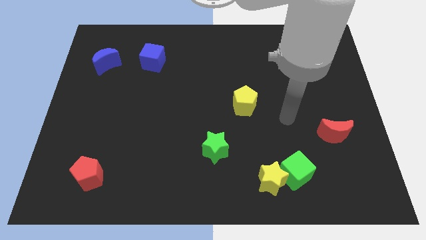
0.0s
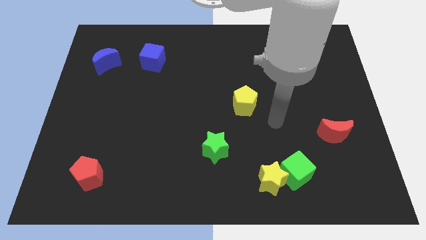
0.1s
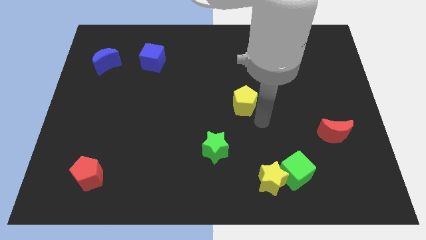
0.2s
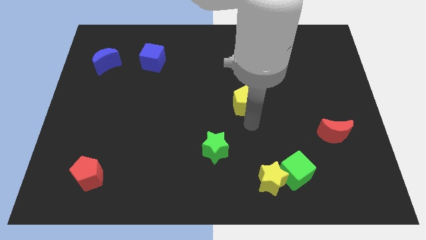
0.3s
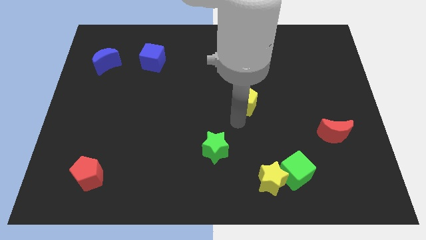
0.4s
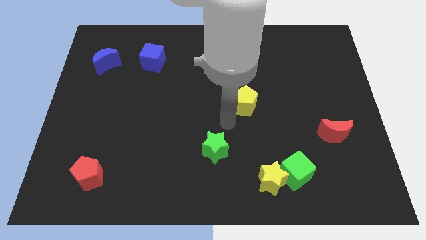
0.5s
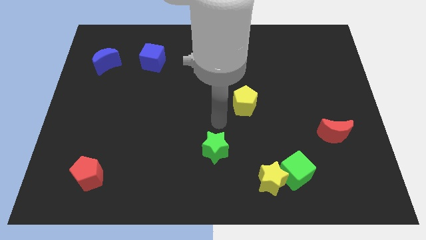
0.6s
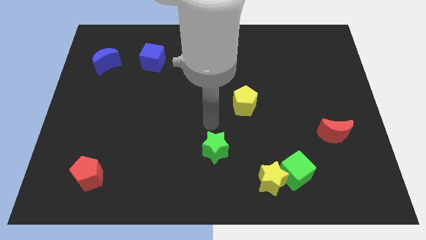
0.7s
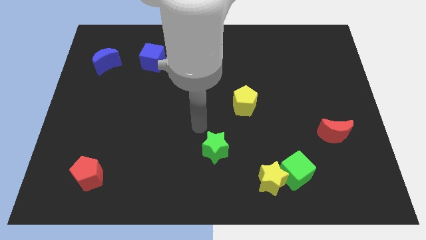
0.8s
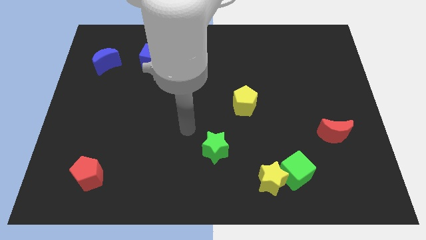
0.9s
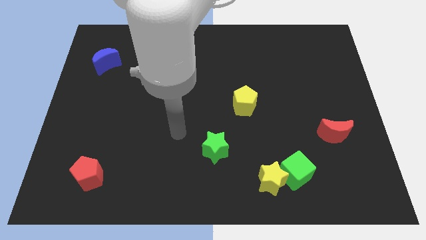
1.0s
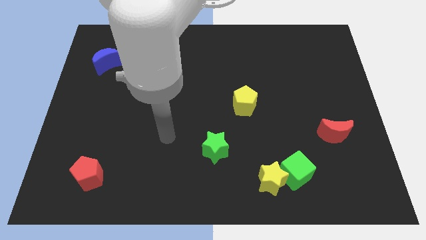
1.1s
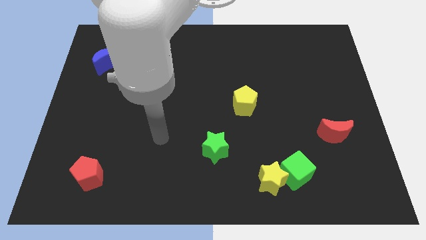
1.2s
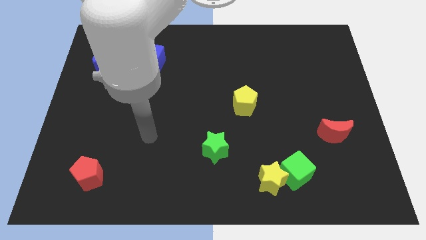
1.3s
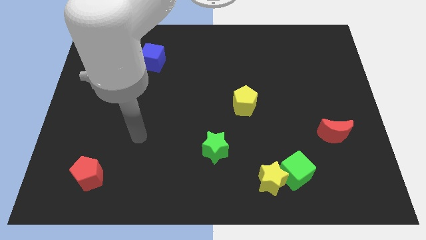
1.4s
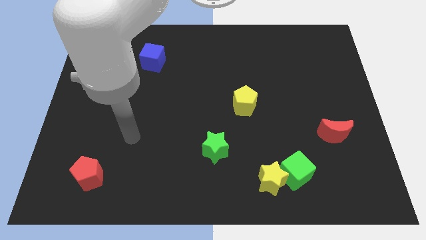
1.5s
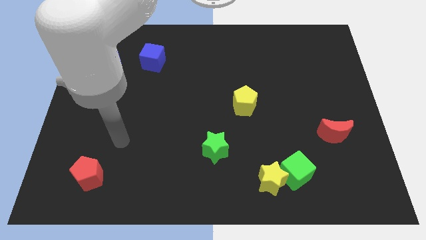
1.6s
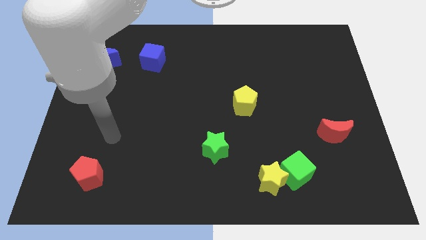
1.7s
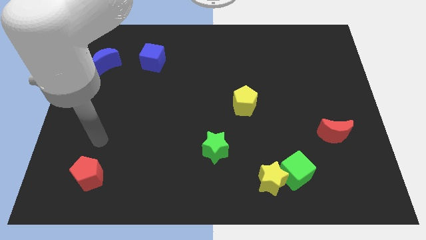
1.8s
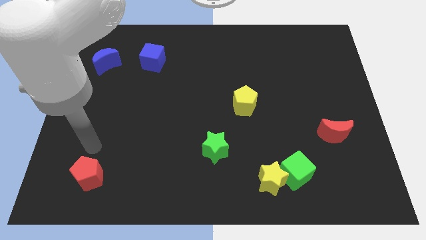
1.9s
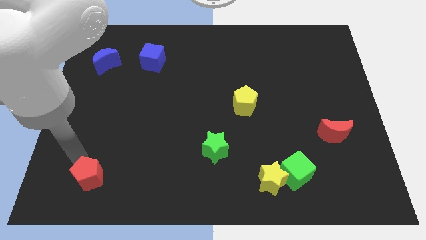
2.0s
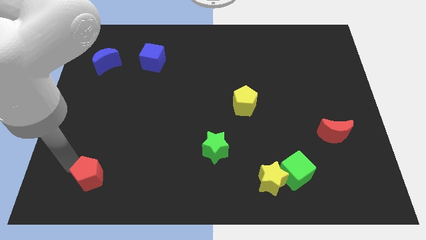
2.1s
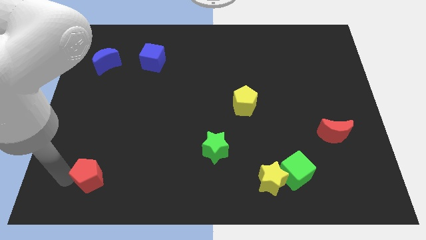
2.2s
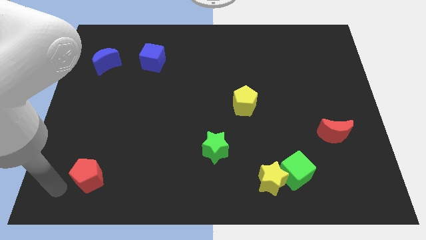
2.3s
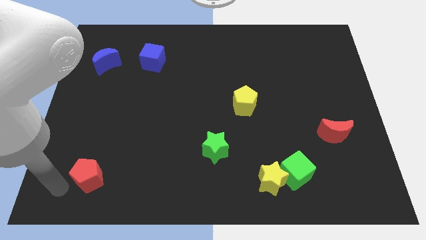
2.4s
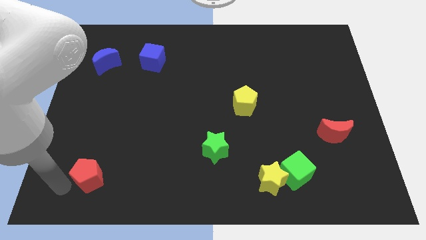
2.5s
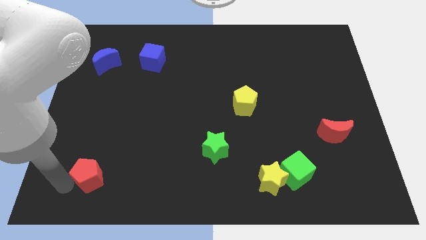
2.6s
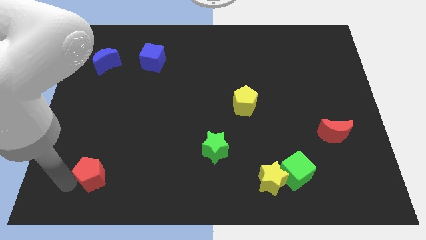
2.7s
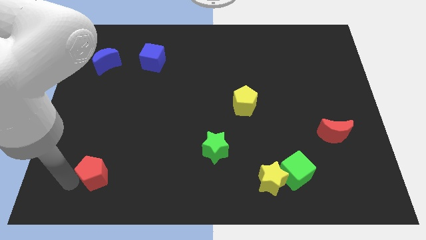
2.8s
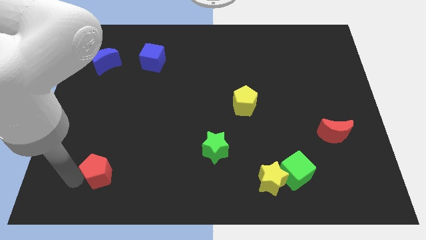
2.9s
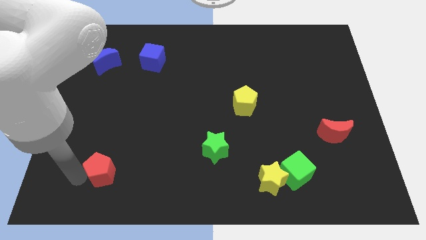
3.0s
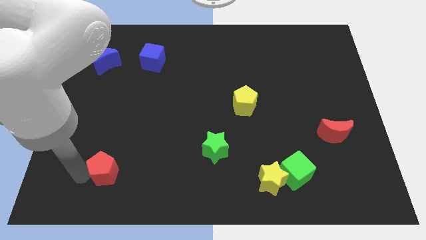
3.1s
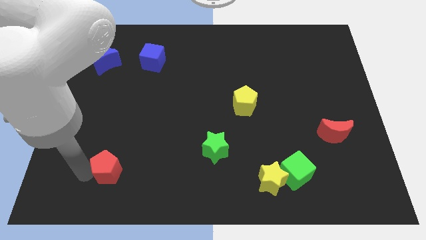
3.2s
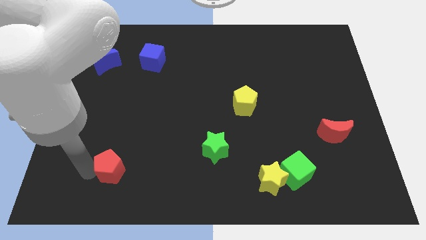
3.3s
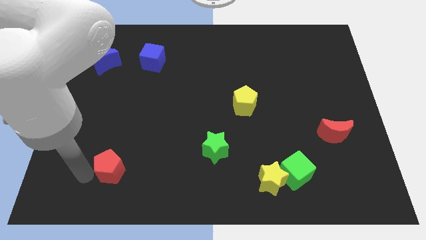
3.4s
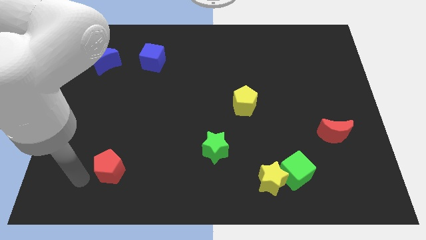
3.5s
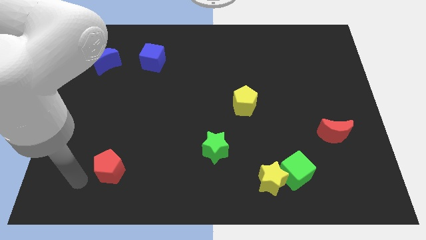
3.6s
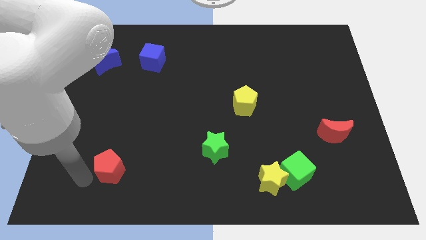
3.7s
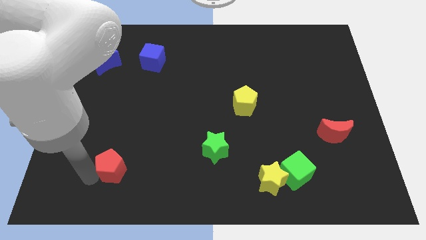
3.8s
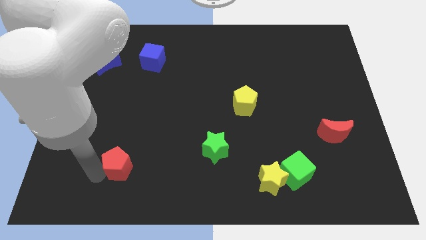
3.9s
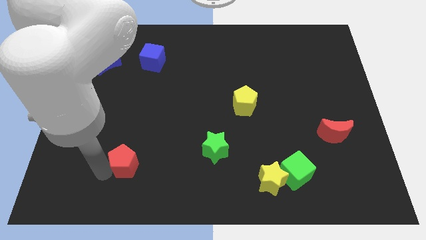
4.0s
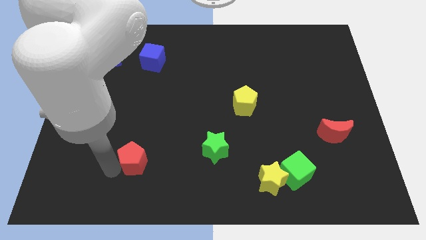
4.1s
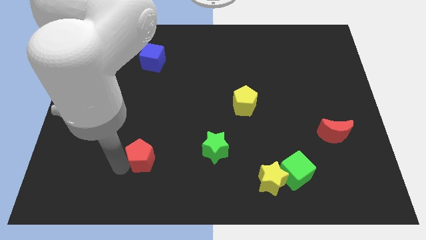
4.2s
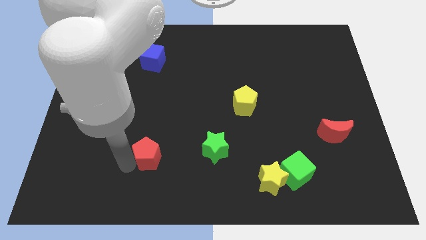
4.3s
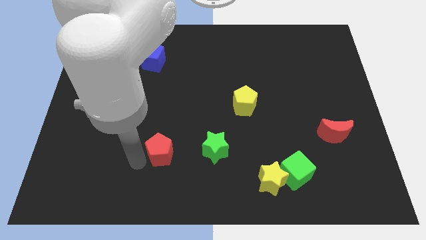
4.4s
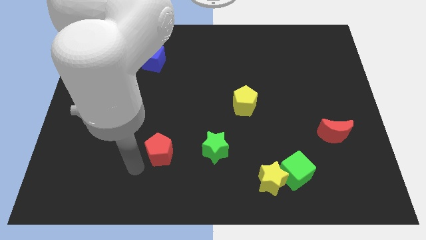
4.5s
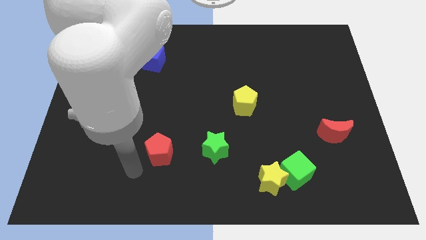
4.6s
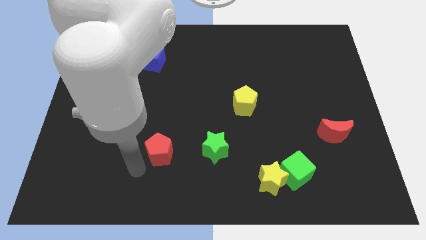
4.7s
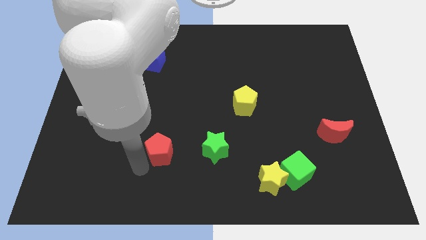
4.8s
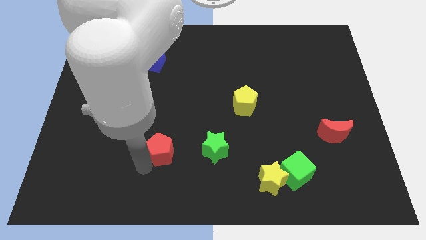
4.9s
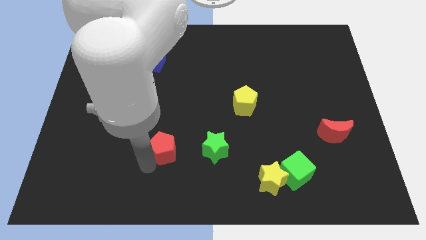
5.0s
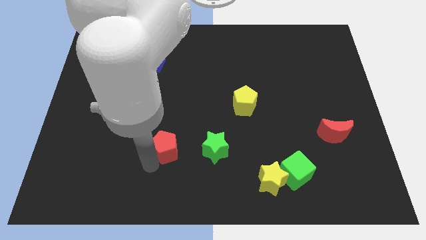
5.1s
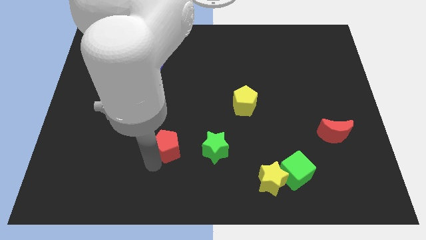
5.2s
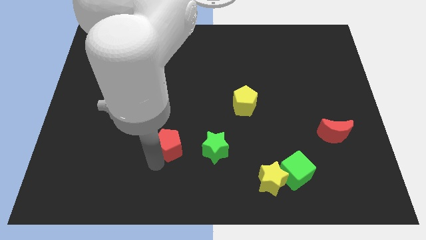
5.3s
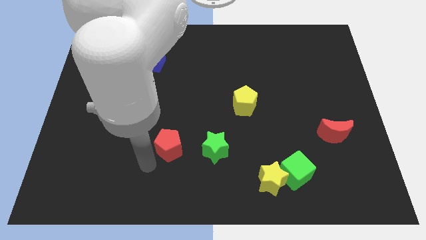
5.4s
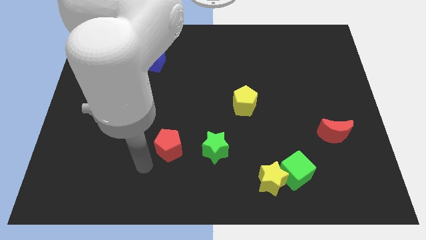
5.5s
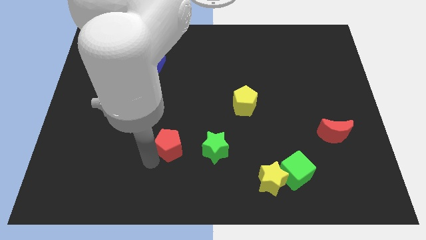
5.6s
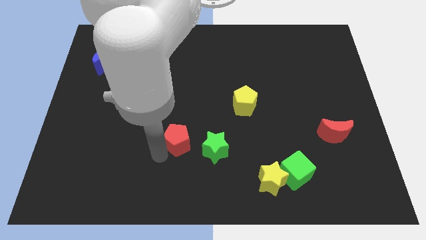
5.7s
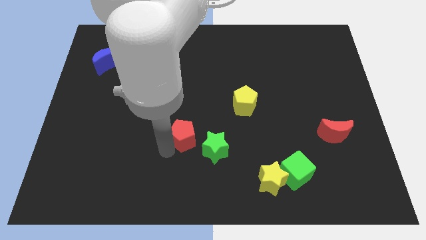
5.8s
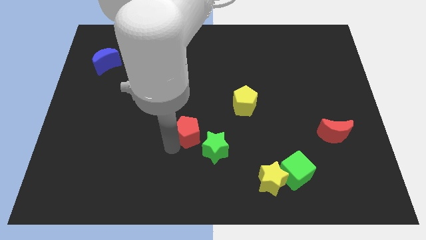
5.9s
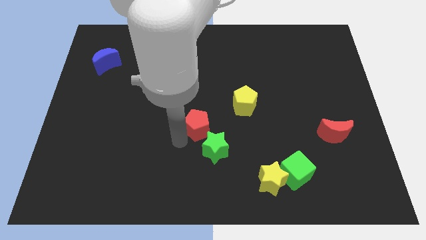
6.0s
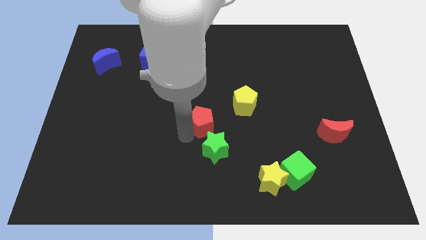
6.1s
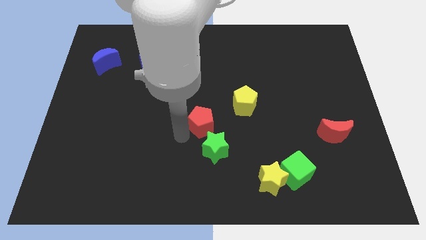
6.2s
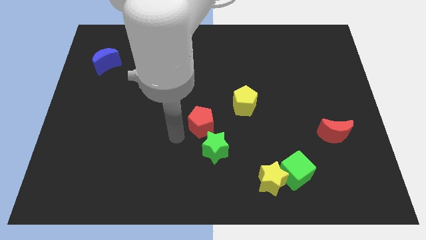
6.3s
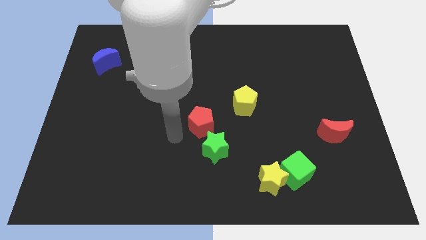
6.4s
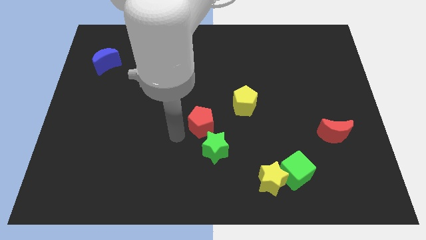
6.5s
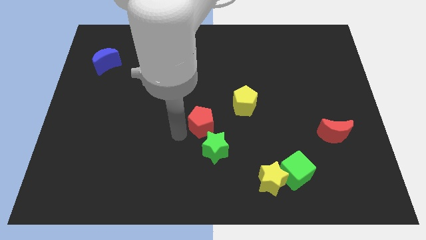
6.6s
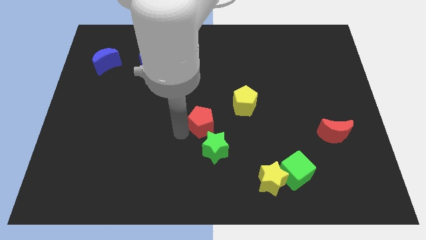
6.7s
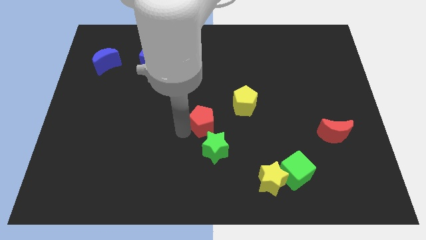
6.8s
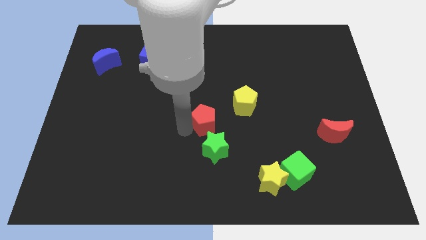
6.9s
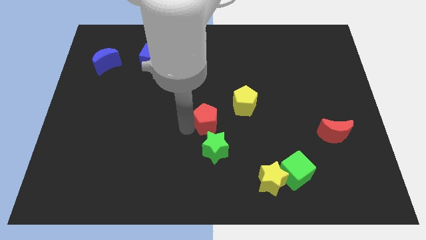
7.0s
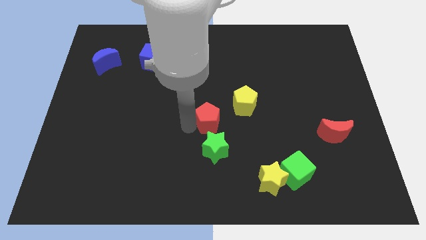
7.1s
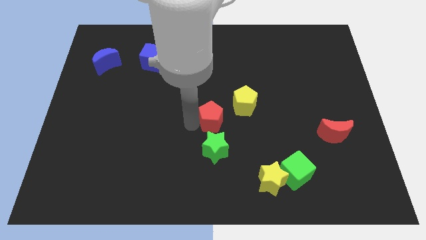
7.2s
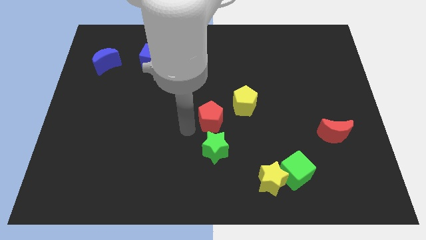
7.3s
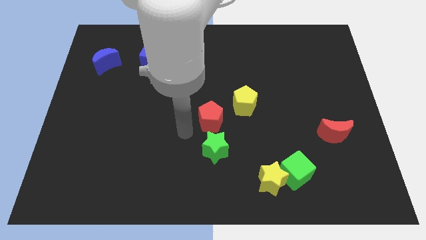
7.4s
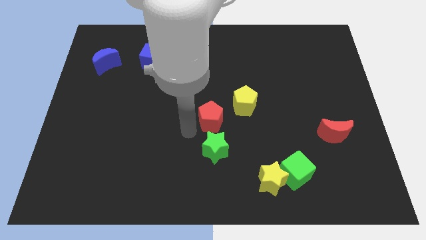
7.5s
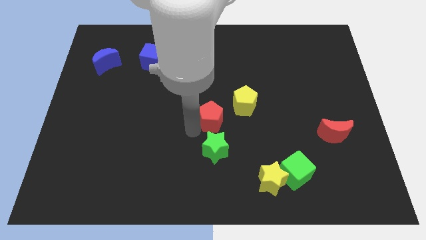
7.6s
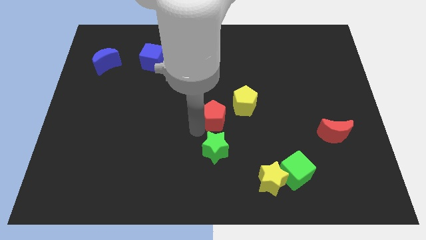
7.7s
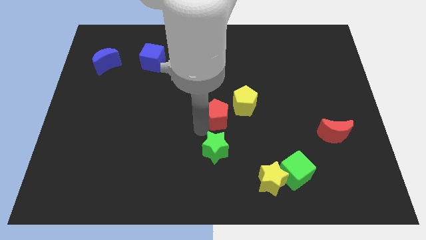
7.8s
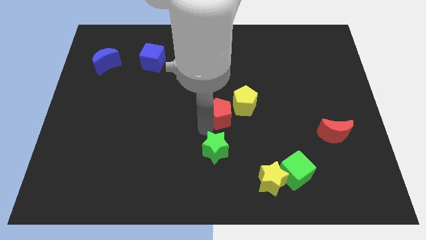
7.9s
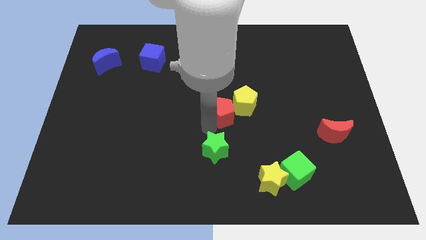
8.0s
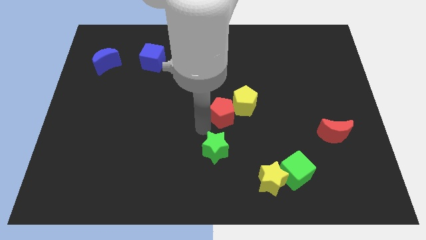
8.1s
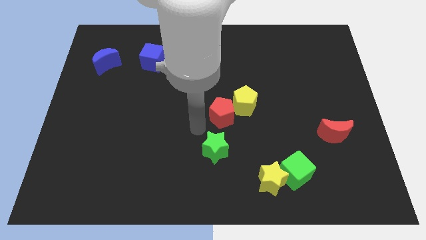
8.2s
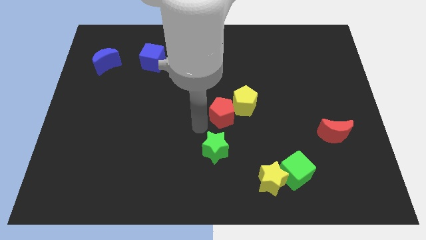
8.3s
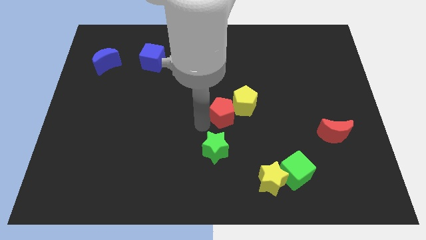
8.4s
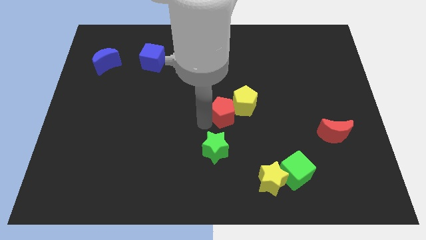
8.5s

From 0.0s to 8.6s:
slide the red pentagon close to the yellow pentagon
